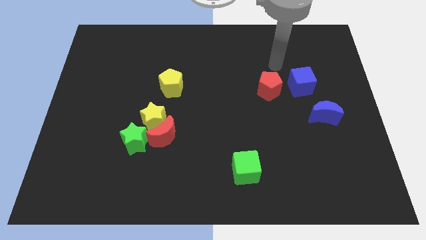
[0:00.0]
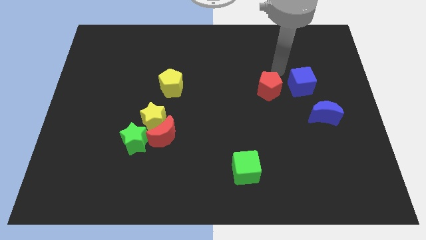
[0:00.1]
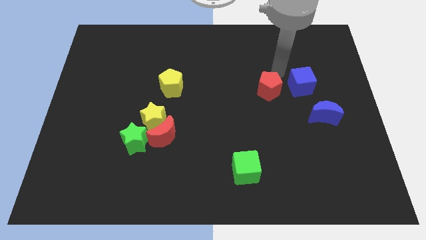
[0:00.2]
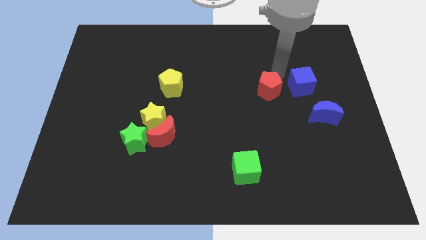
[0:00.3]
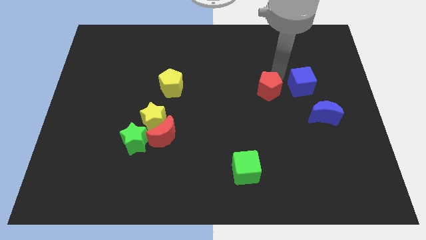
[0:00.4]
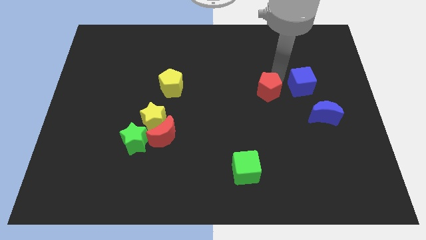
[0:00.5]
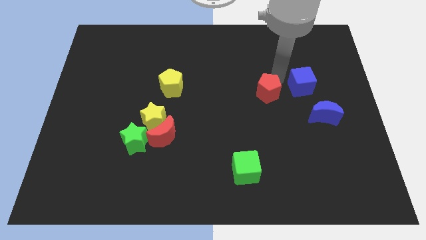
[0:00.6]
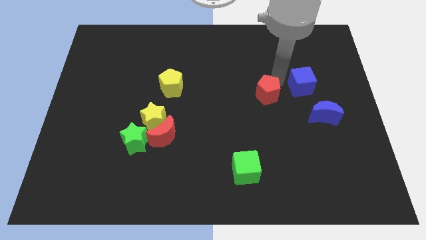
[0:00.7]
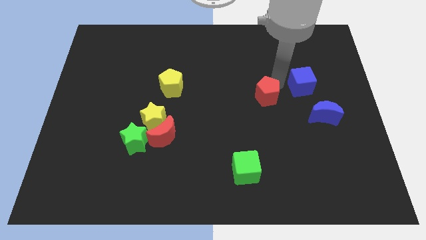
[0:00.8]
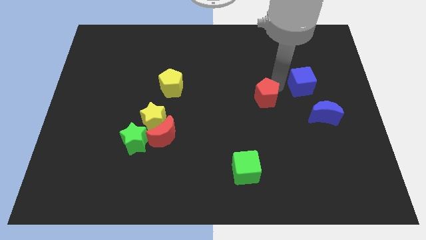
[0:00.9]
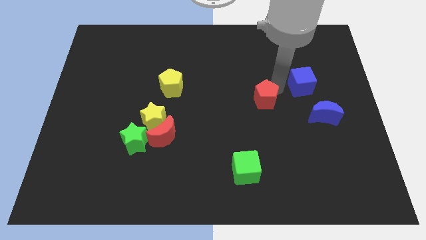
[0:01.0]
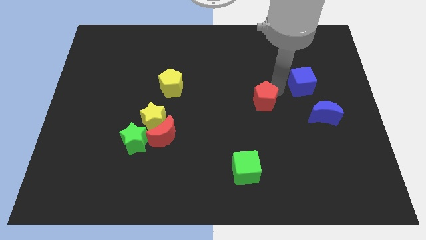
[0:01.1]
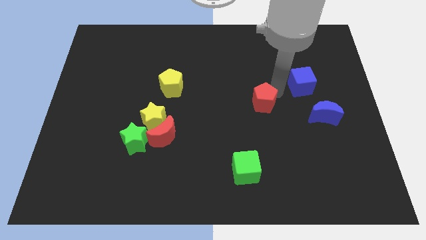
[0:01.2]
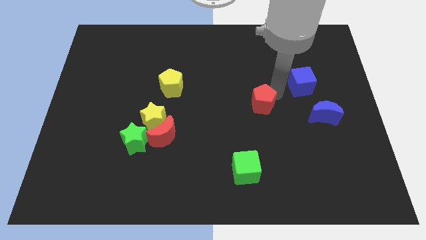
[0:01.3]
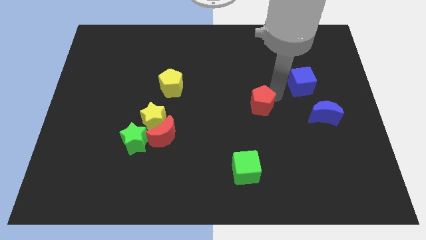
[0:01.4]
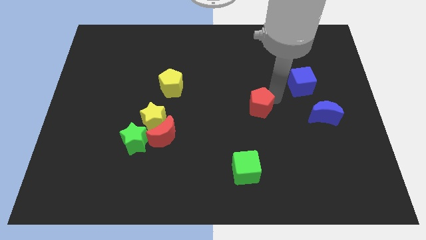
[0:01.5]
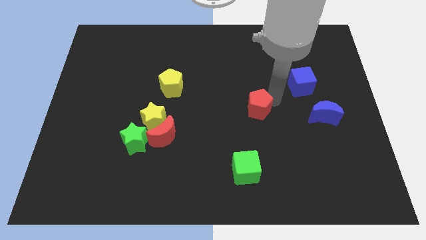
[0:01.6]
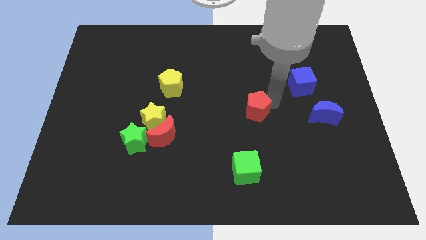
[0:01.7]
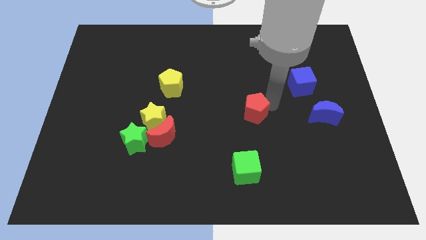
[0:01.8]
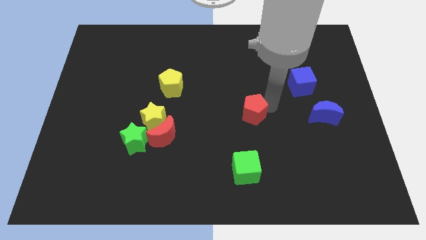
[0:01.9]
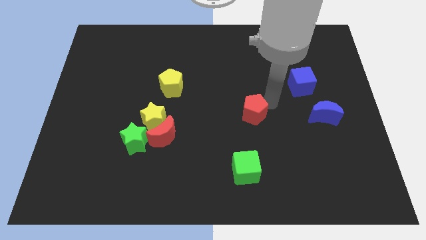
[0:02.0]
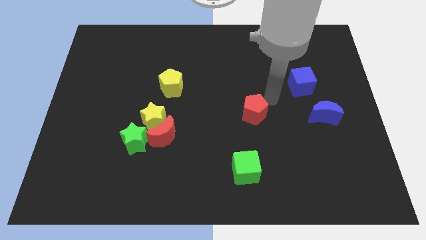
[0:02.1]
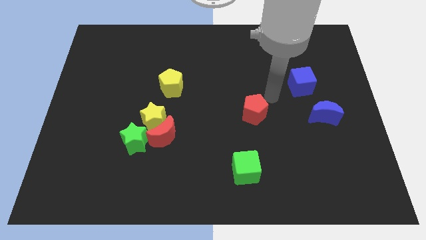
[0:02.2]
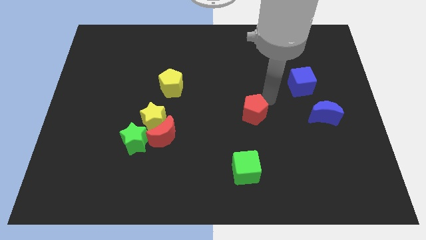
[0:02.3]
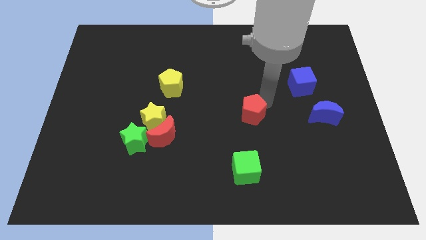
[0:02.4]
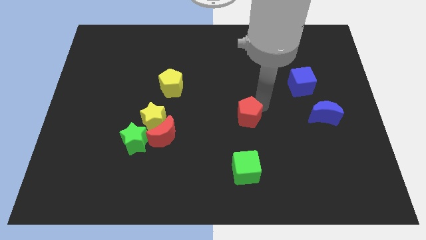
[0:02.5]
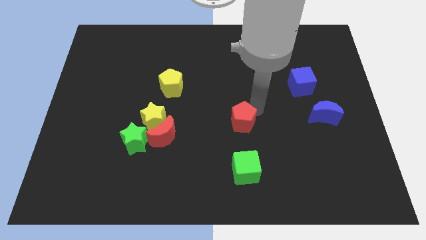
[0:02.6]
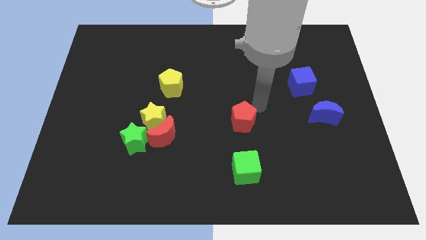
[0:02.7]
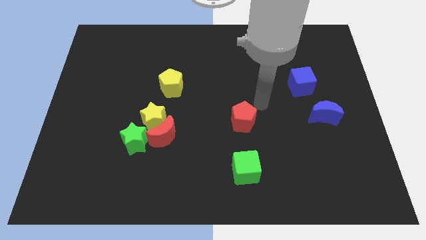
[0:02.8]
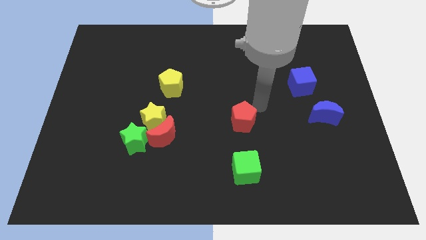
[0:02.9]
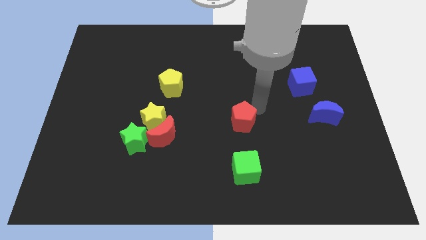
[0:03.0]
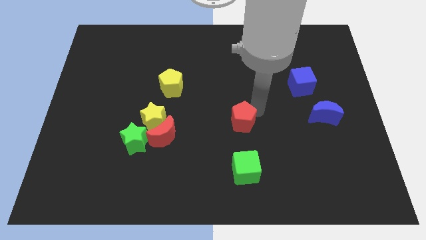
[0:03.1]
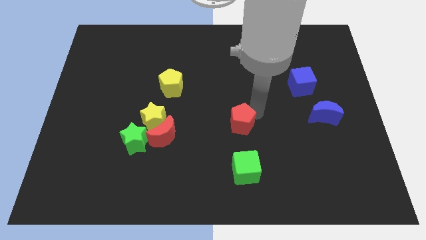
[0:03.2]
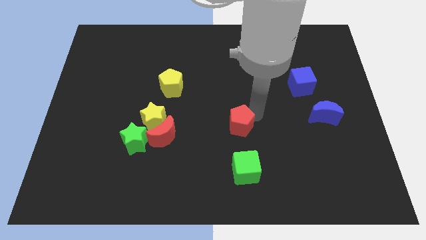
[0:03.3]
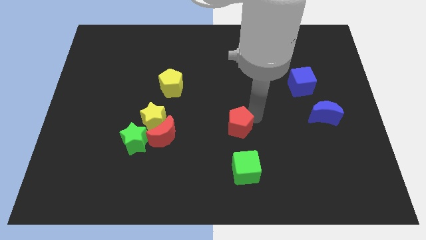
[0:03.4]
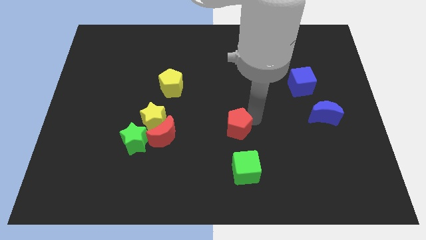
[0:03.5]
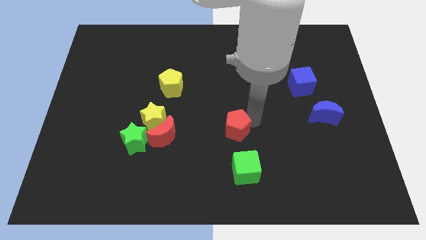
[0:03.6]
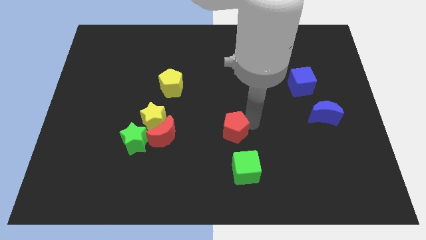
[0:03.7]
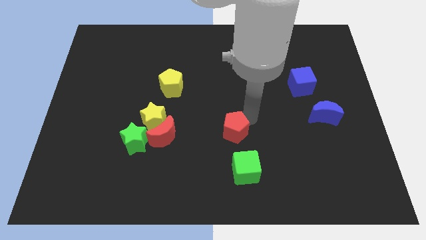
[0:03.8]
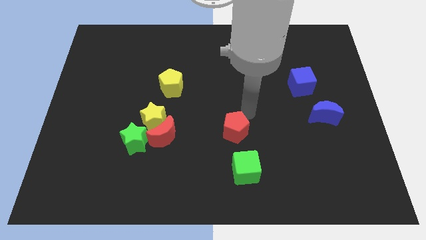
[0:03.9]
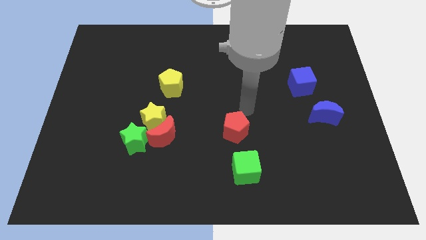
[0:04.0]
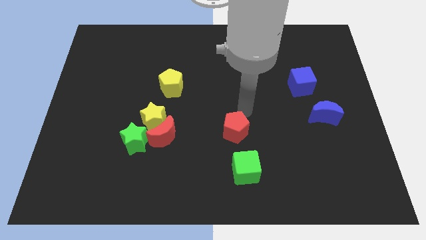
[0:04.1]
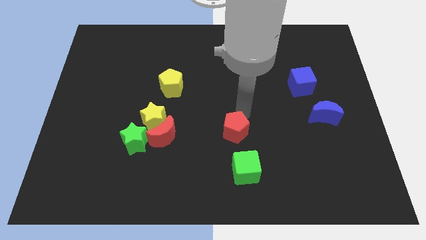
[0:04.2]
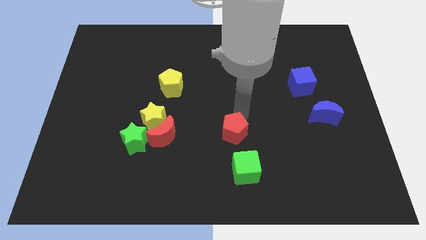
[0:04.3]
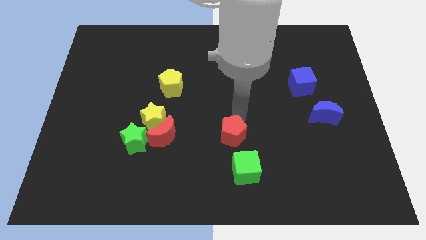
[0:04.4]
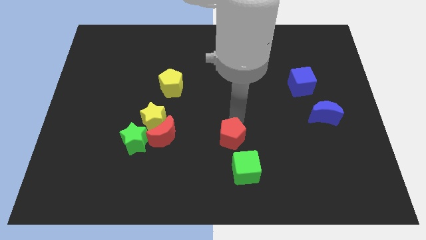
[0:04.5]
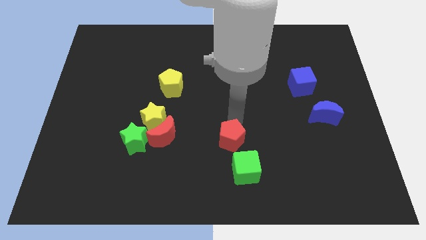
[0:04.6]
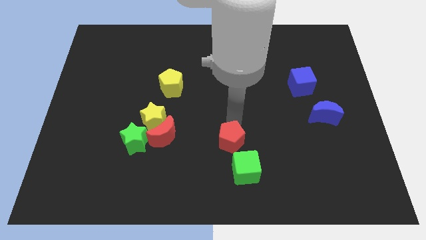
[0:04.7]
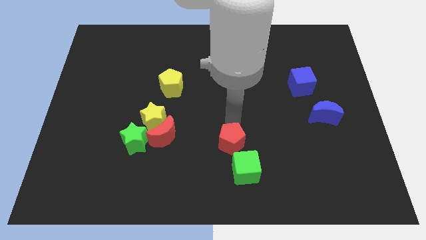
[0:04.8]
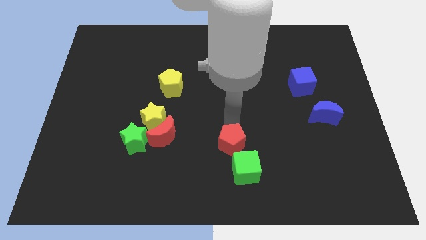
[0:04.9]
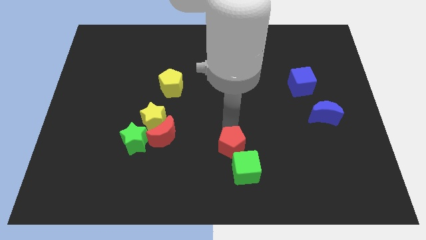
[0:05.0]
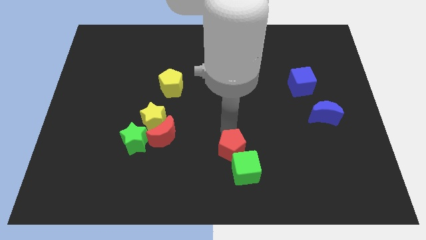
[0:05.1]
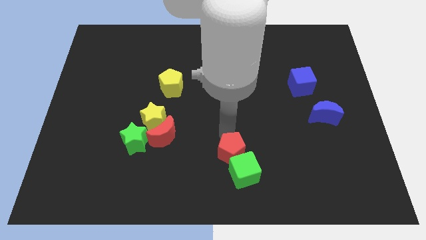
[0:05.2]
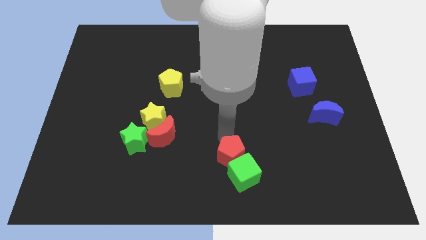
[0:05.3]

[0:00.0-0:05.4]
slide the red pentagon to the bottom side
